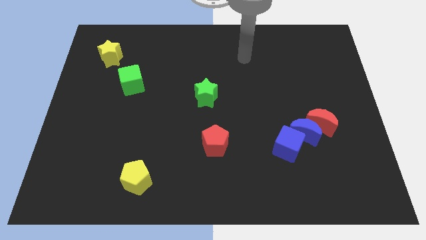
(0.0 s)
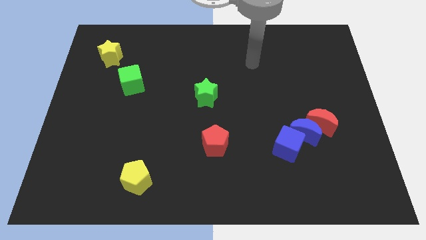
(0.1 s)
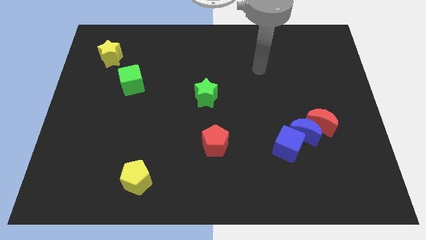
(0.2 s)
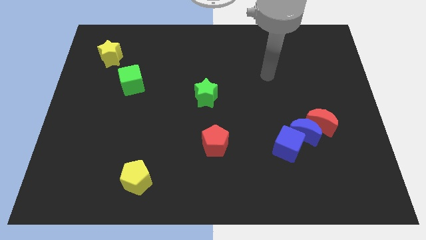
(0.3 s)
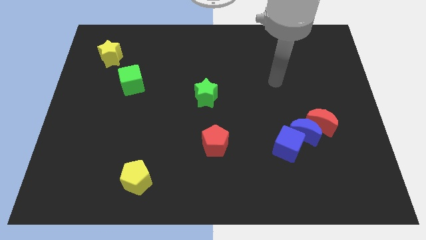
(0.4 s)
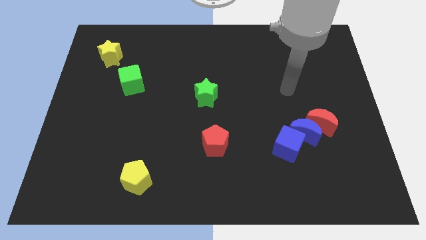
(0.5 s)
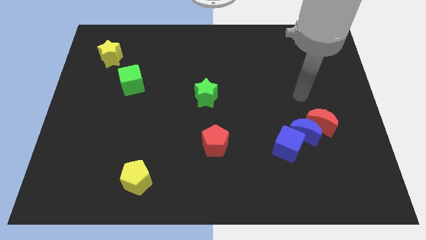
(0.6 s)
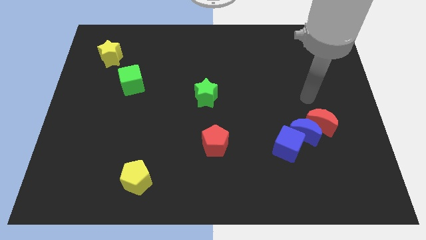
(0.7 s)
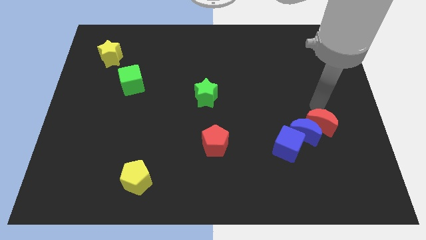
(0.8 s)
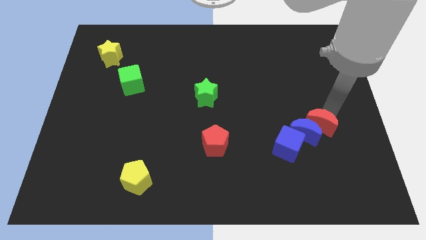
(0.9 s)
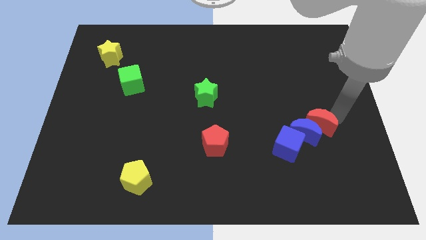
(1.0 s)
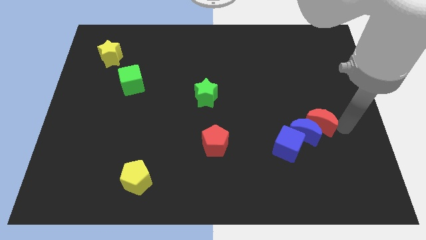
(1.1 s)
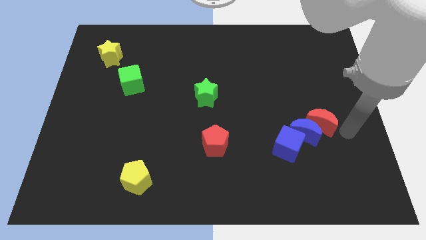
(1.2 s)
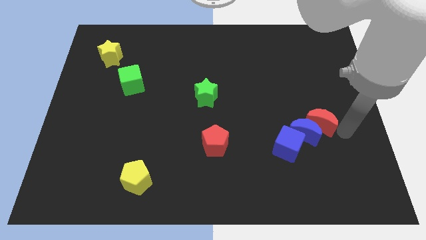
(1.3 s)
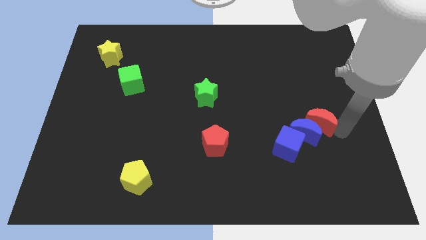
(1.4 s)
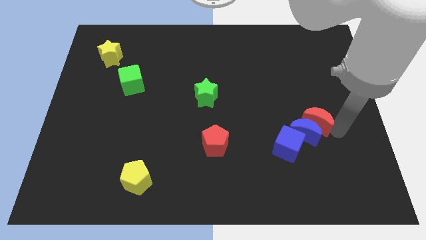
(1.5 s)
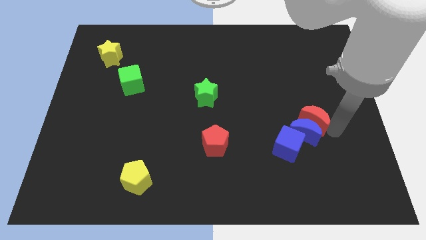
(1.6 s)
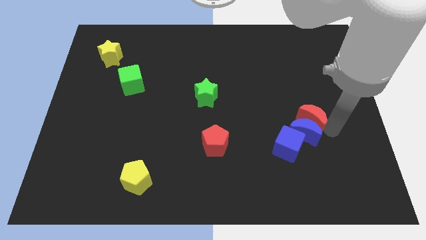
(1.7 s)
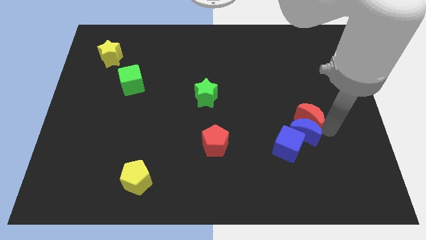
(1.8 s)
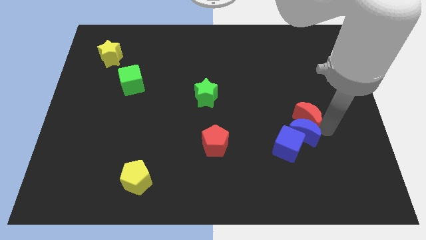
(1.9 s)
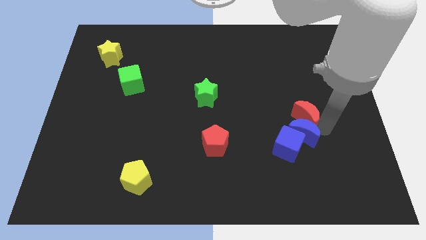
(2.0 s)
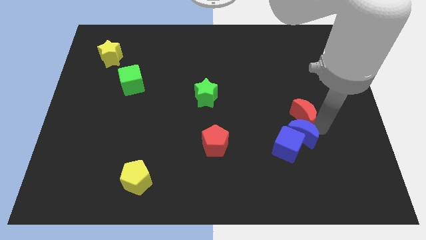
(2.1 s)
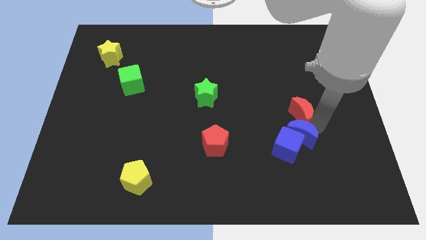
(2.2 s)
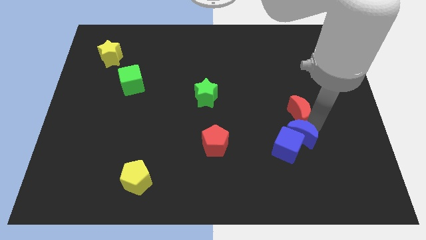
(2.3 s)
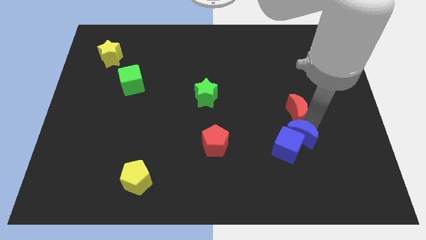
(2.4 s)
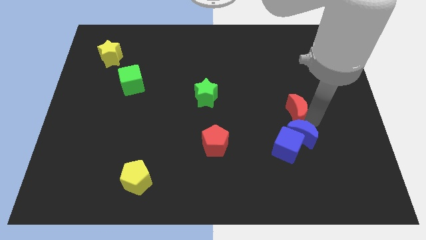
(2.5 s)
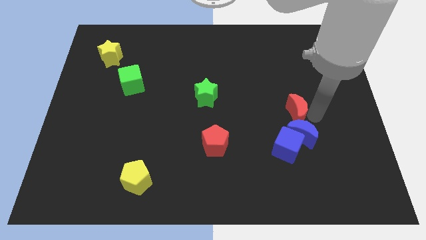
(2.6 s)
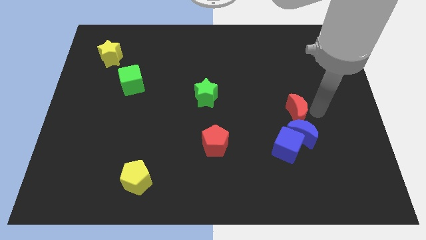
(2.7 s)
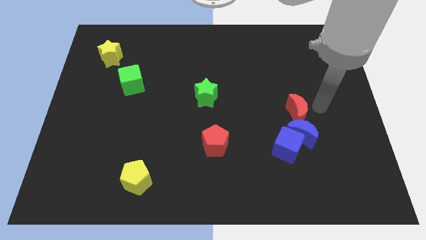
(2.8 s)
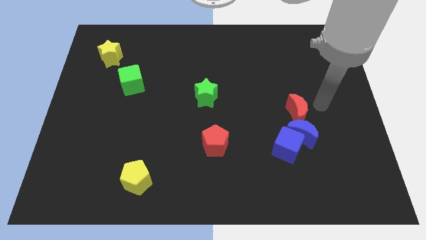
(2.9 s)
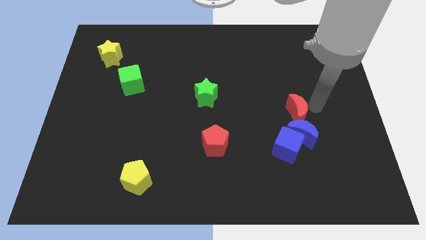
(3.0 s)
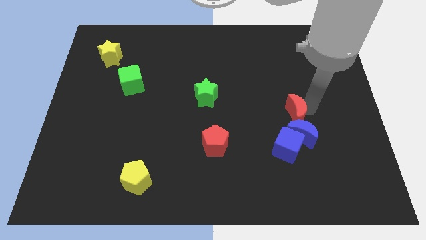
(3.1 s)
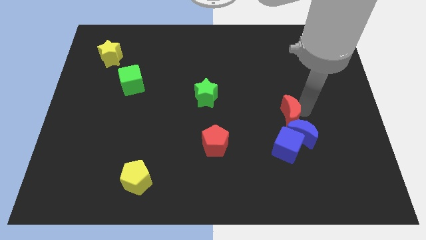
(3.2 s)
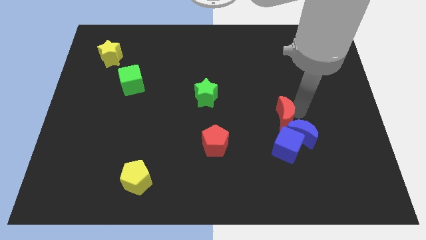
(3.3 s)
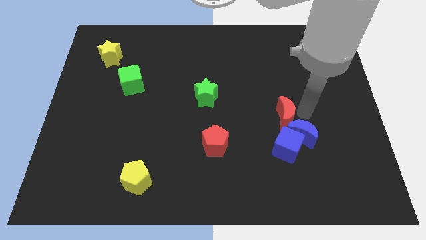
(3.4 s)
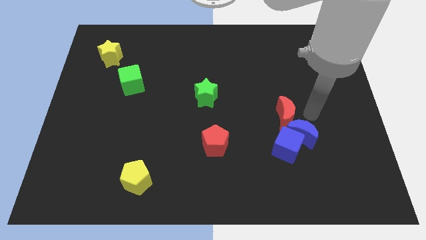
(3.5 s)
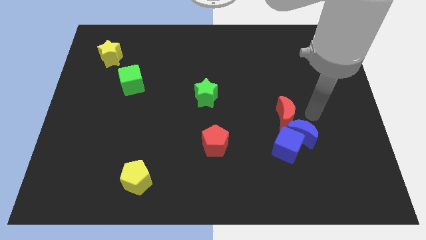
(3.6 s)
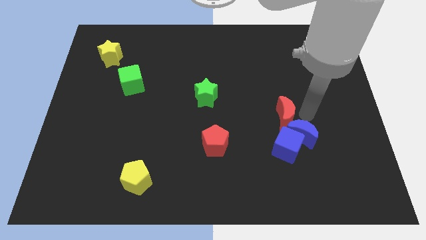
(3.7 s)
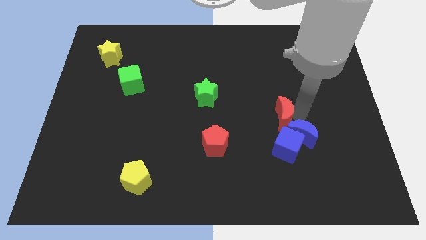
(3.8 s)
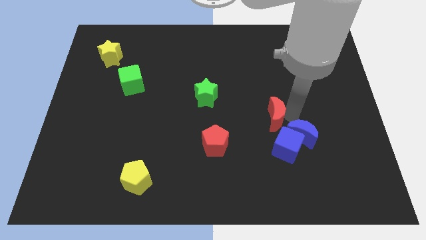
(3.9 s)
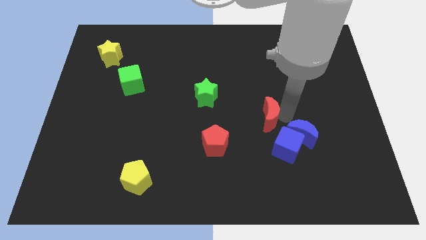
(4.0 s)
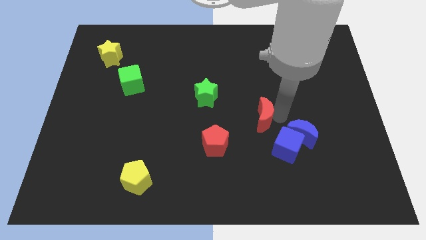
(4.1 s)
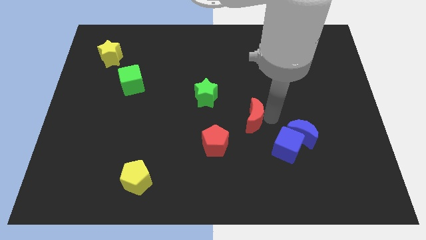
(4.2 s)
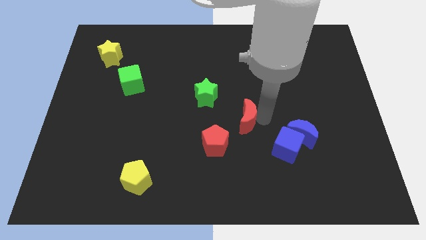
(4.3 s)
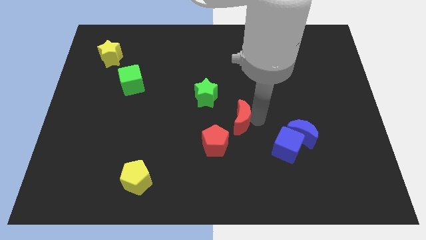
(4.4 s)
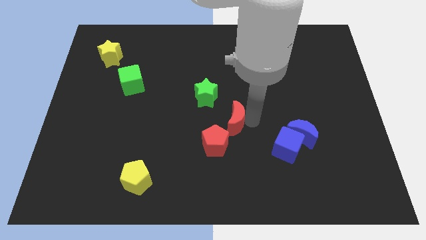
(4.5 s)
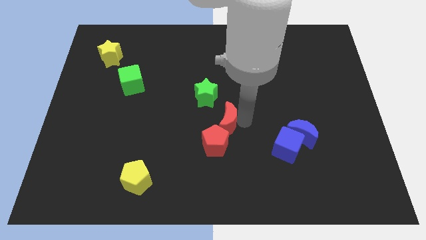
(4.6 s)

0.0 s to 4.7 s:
move the red moon to the left

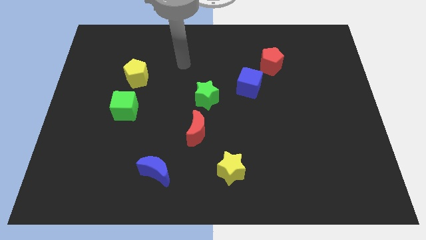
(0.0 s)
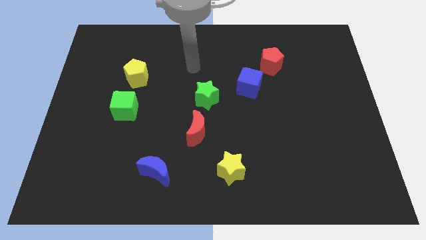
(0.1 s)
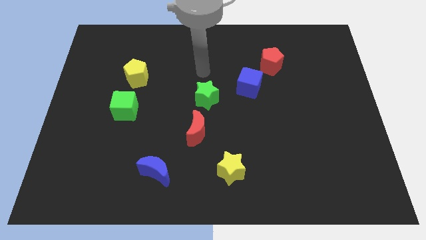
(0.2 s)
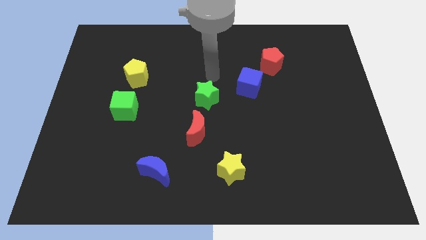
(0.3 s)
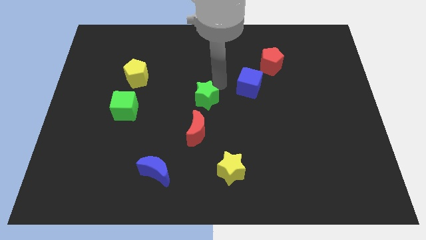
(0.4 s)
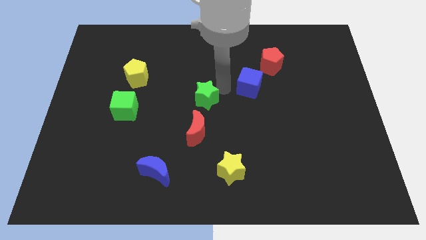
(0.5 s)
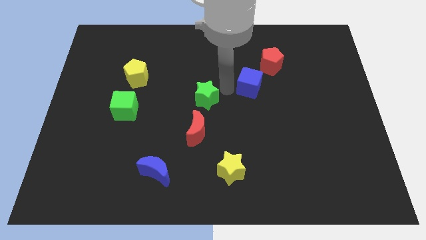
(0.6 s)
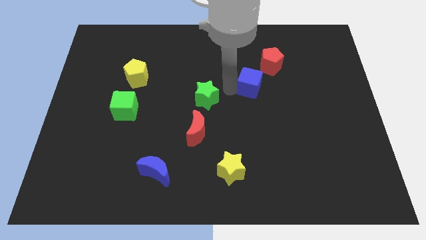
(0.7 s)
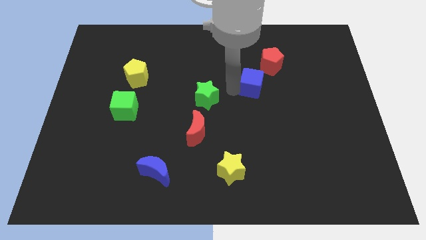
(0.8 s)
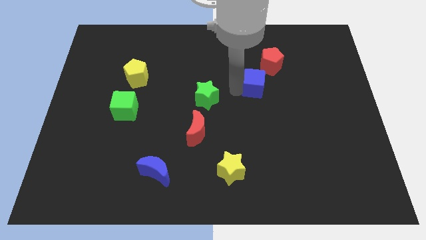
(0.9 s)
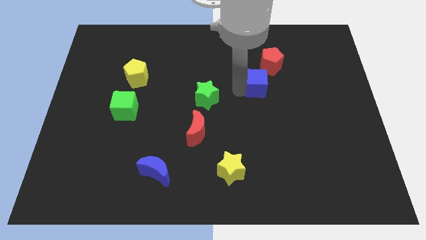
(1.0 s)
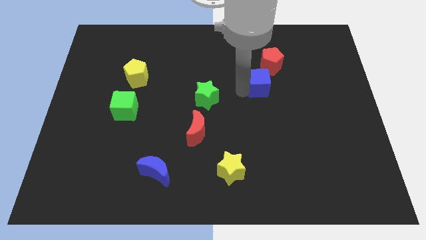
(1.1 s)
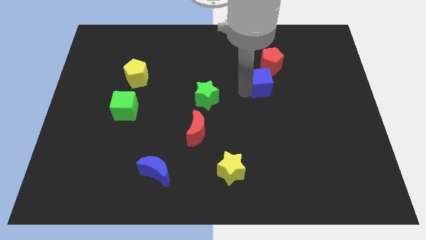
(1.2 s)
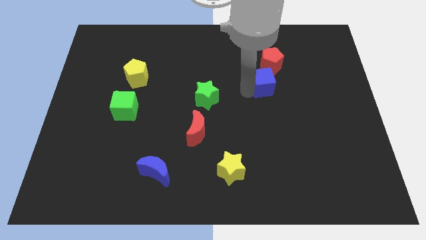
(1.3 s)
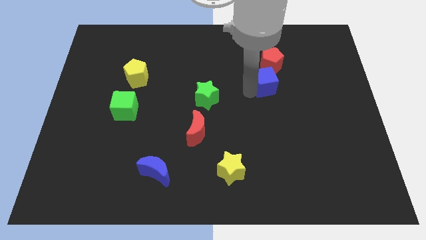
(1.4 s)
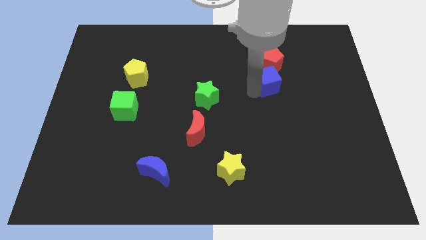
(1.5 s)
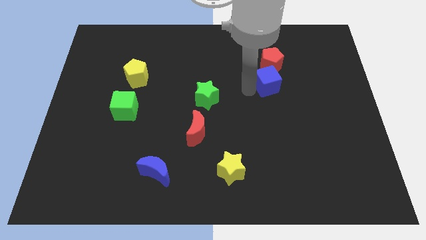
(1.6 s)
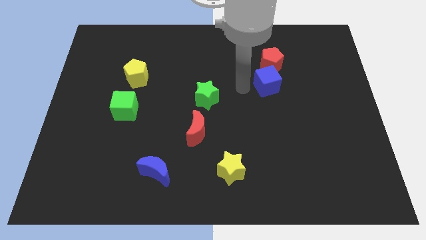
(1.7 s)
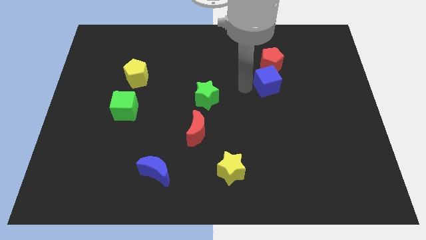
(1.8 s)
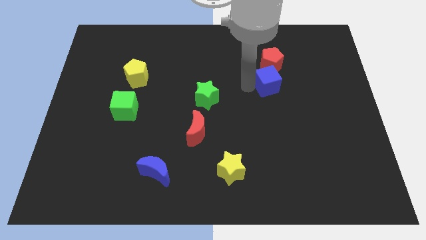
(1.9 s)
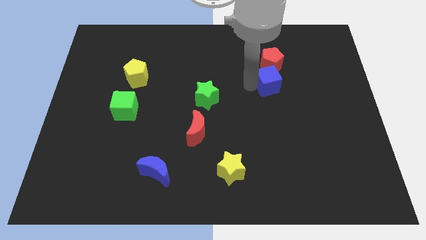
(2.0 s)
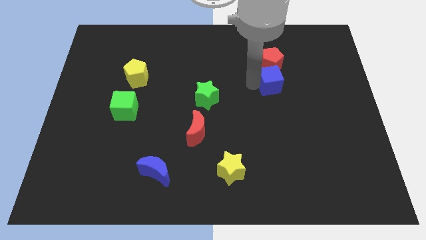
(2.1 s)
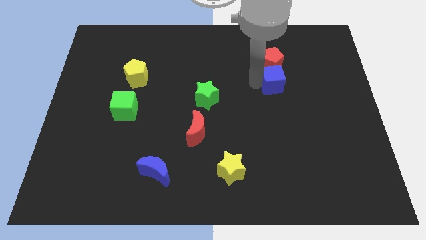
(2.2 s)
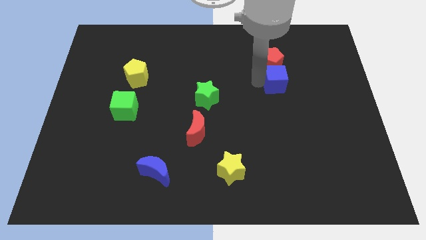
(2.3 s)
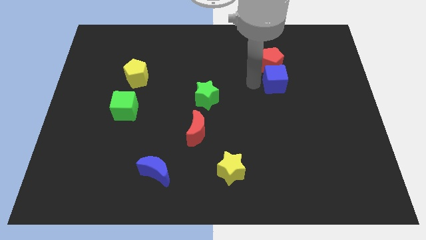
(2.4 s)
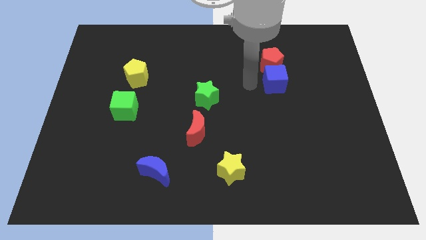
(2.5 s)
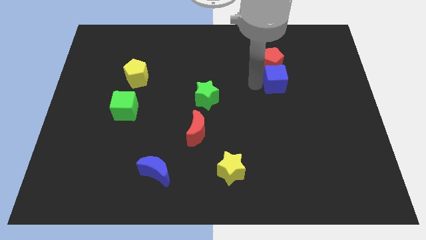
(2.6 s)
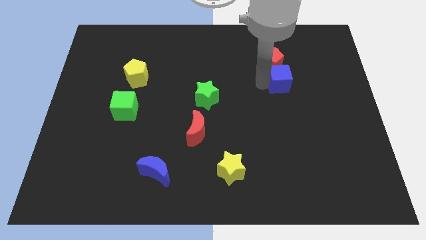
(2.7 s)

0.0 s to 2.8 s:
move the blue cube somewhat to the right

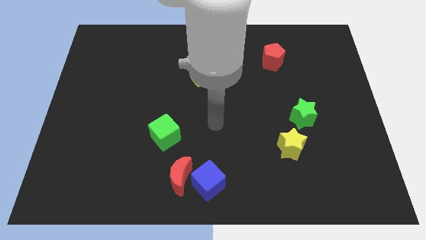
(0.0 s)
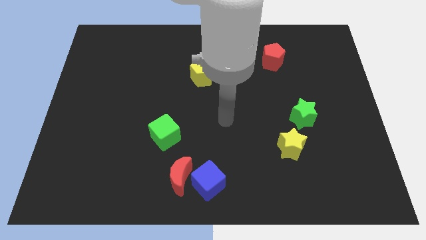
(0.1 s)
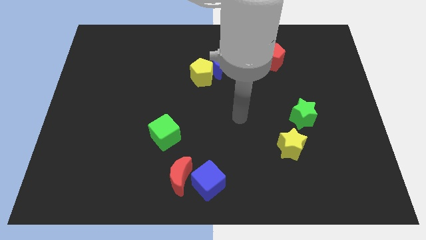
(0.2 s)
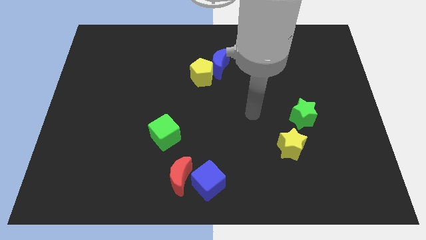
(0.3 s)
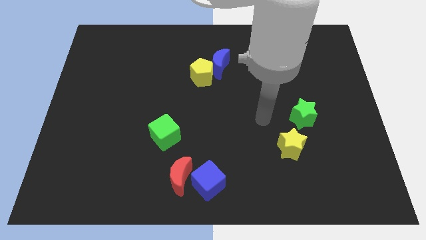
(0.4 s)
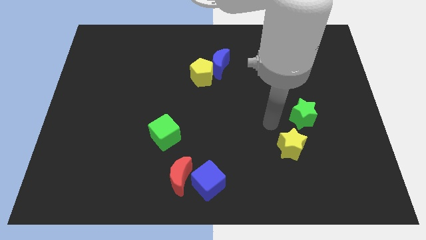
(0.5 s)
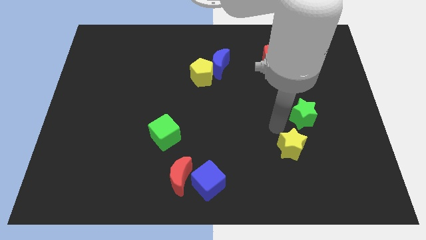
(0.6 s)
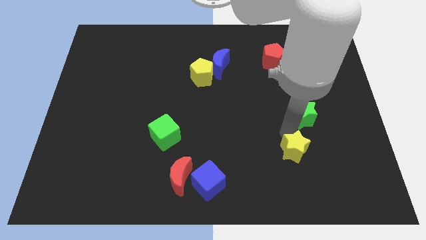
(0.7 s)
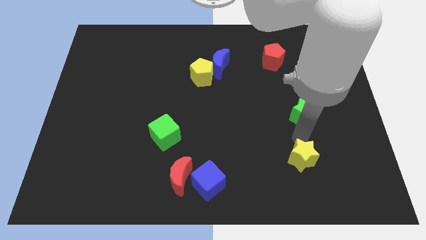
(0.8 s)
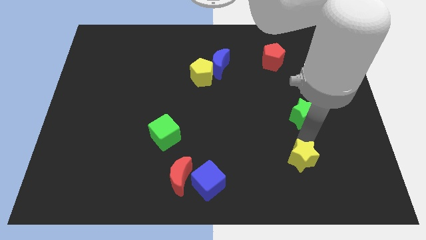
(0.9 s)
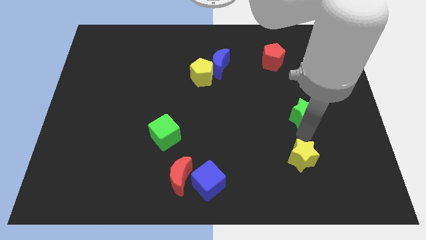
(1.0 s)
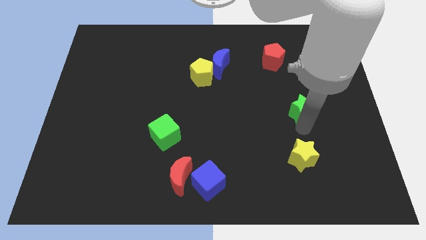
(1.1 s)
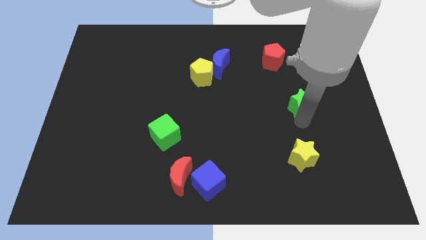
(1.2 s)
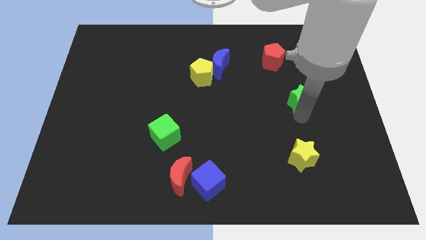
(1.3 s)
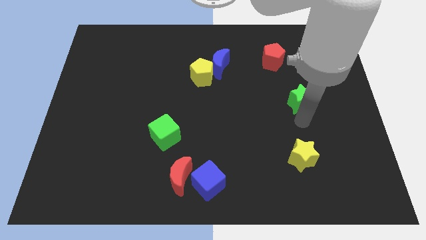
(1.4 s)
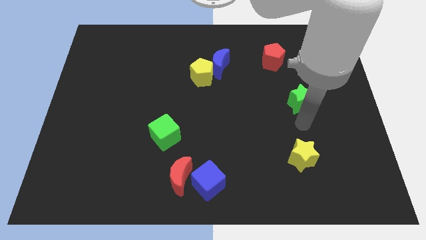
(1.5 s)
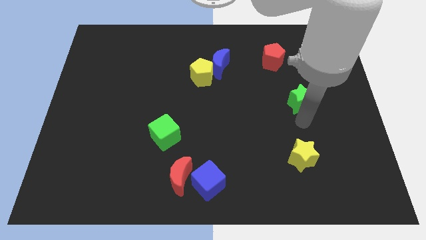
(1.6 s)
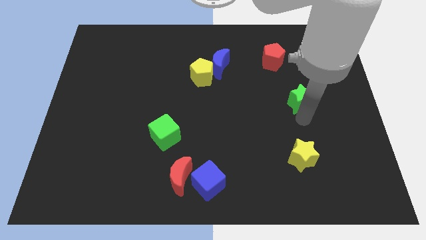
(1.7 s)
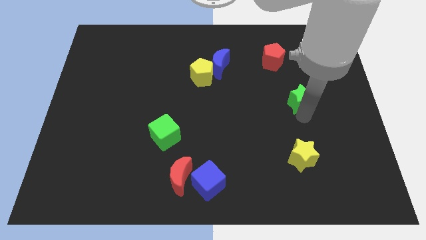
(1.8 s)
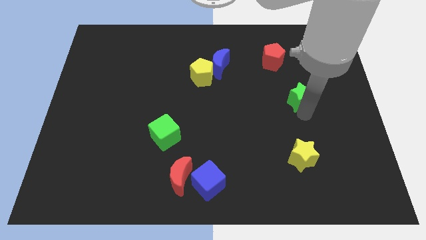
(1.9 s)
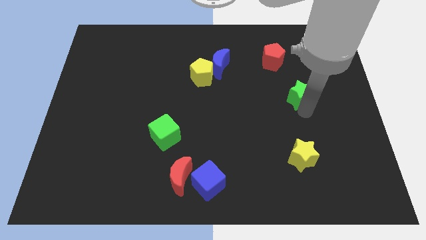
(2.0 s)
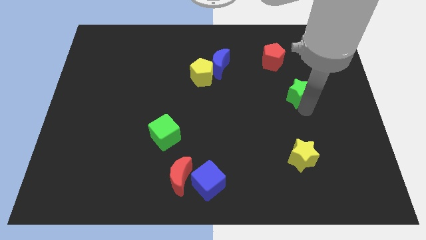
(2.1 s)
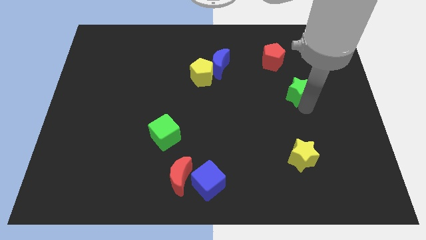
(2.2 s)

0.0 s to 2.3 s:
move the green star up a bit
